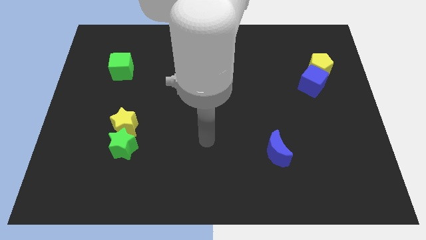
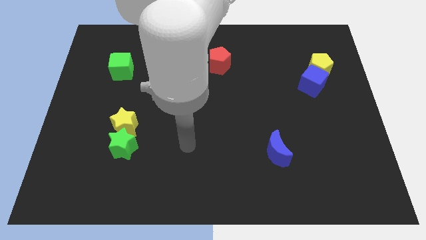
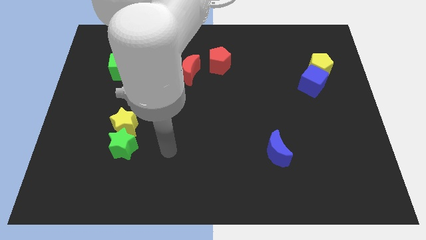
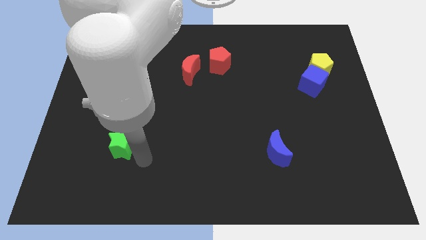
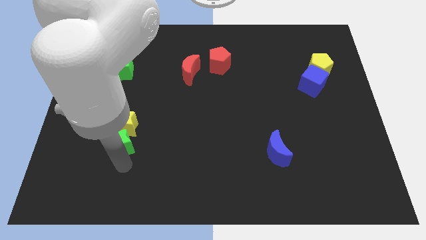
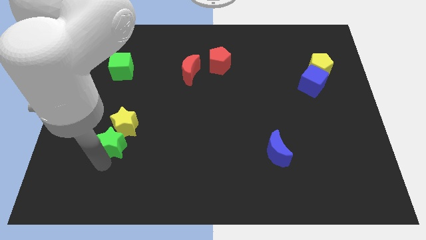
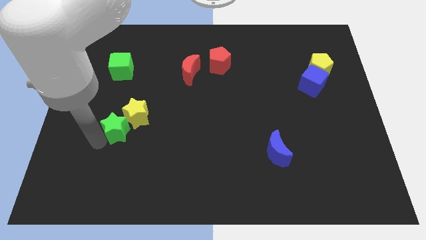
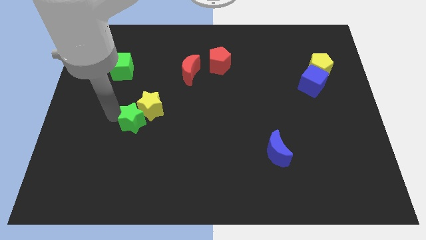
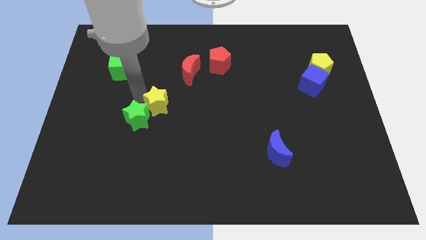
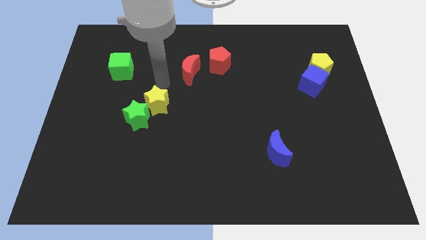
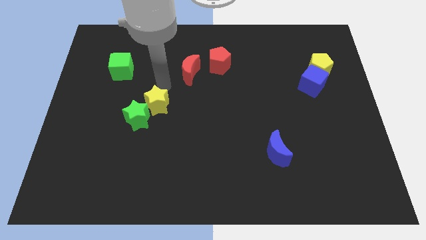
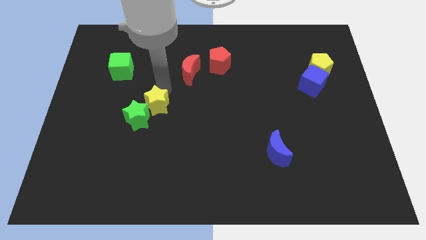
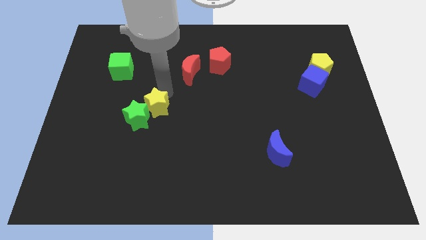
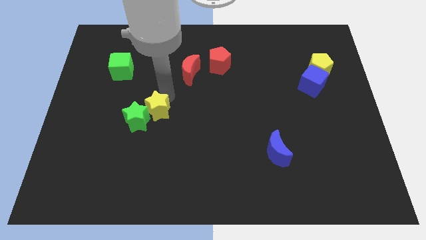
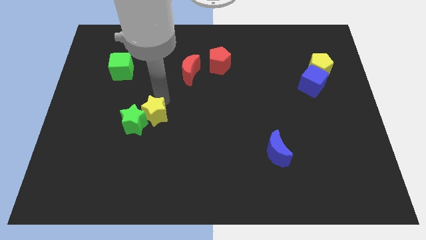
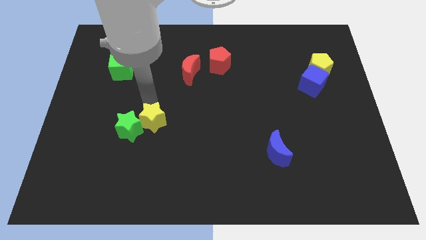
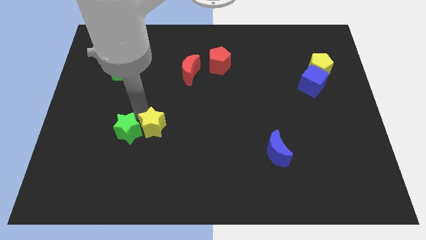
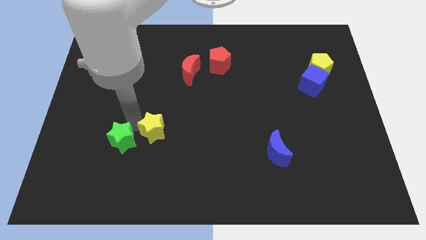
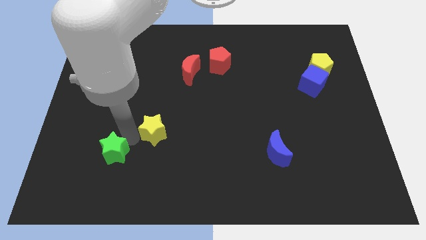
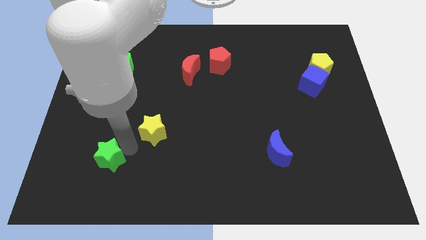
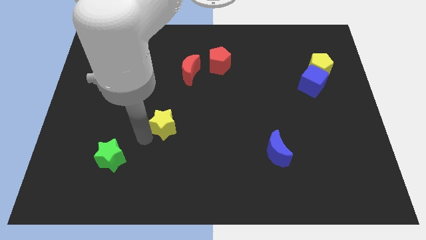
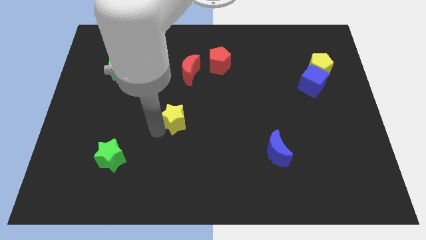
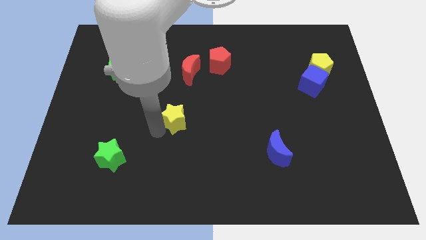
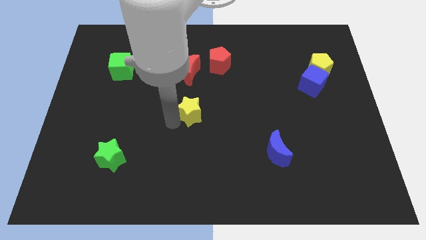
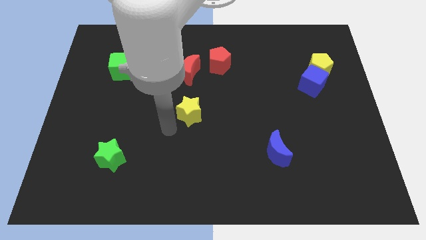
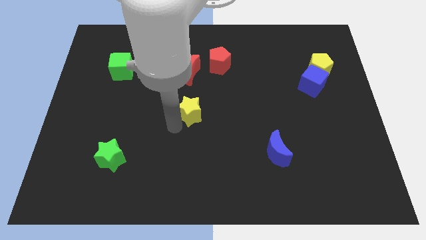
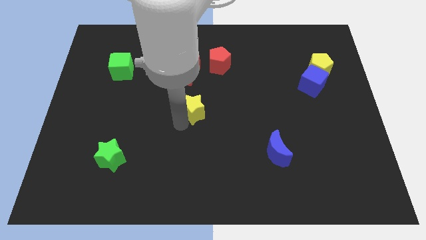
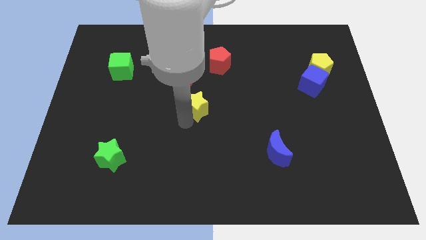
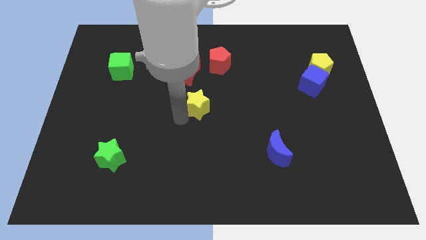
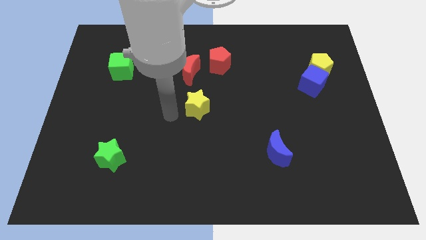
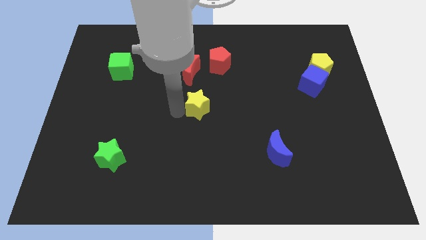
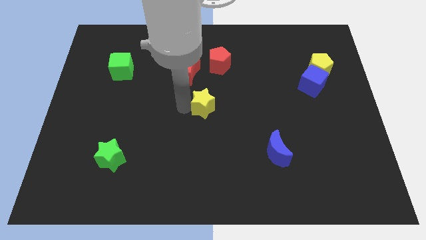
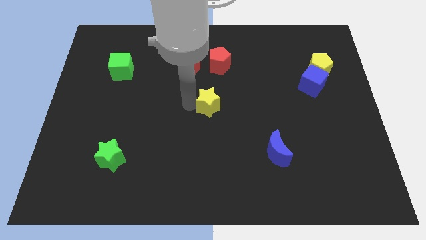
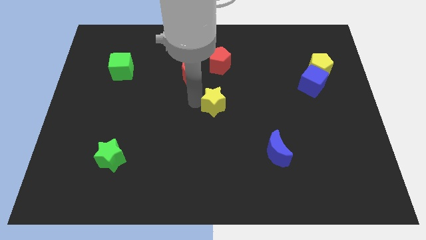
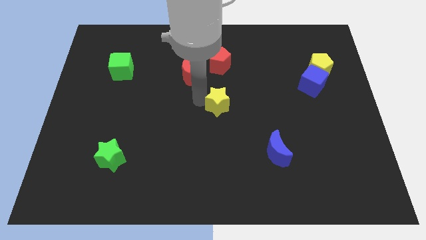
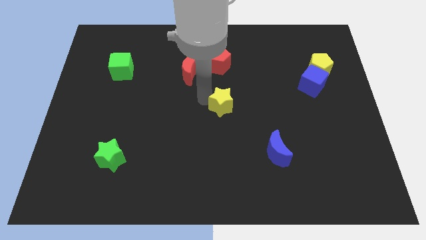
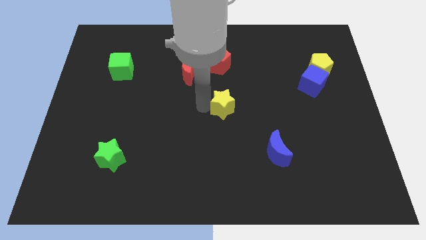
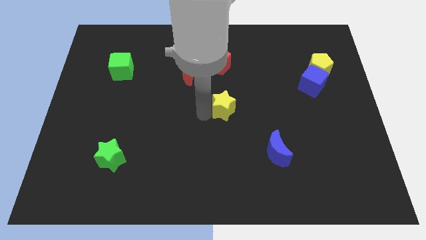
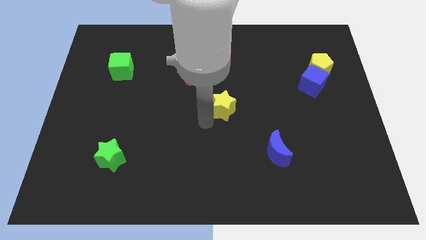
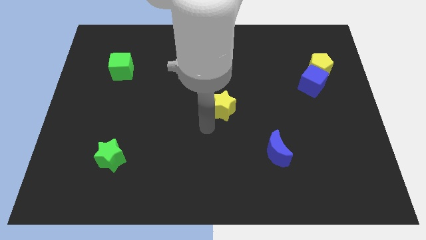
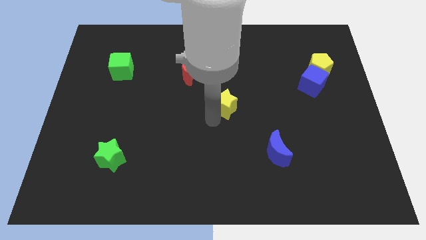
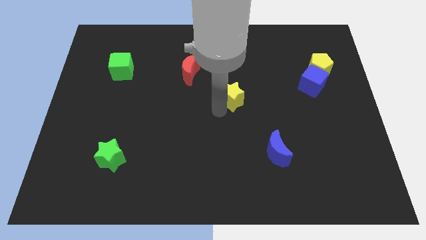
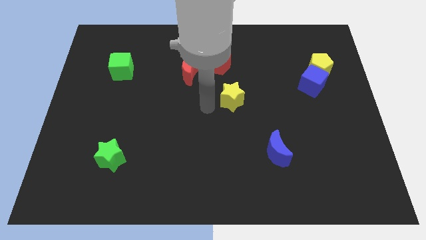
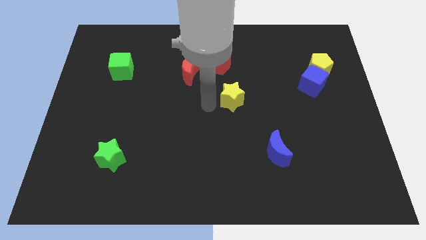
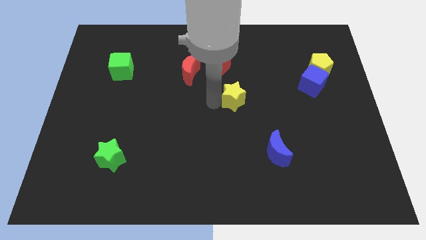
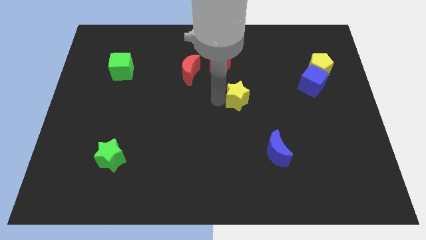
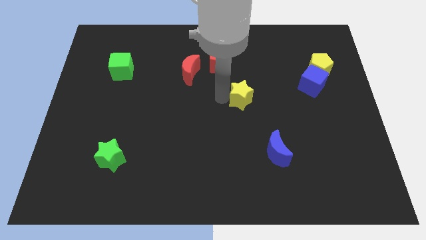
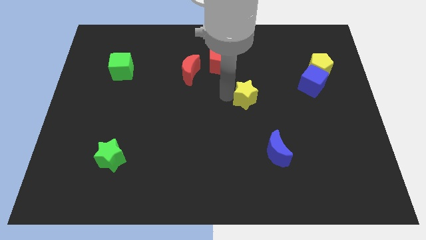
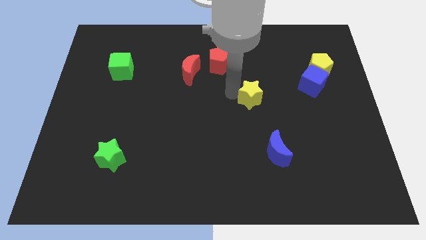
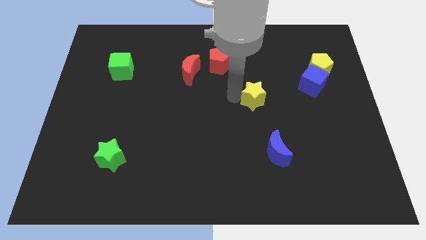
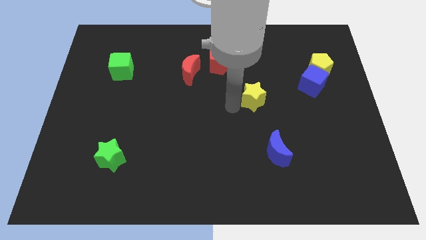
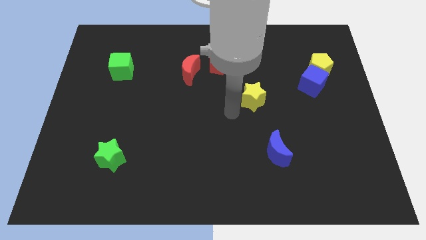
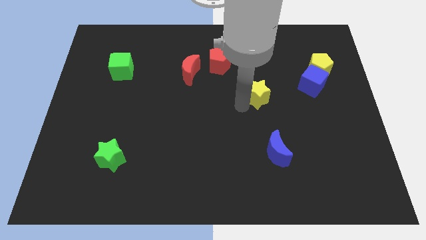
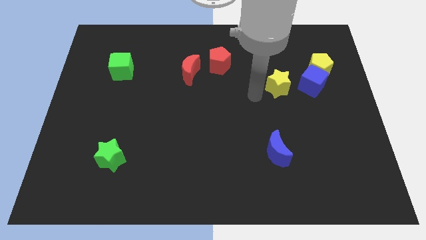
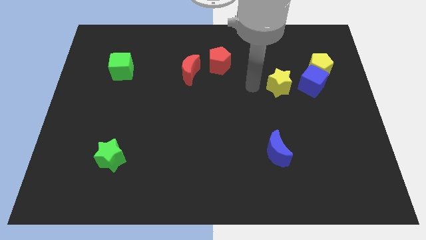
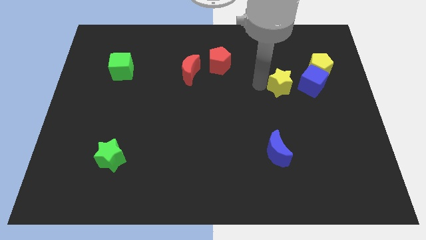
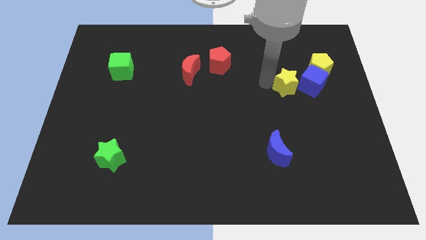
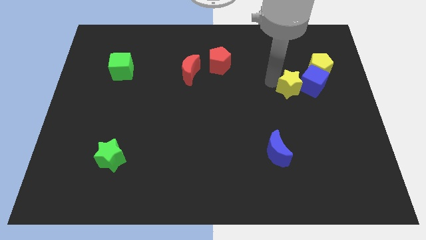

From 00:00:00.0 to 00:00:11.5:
slide the yellow star close to the blue cube

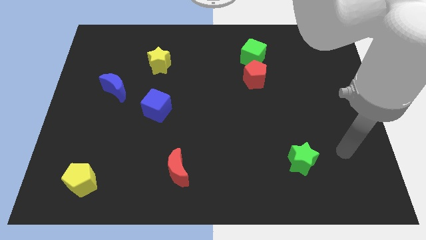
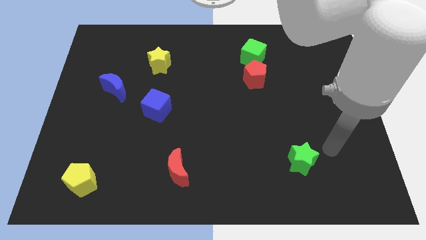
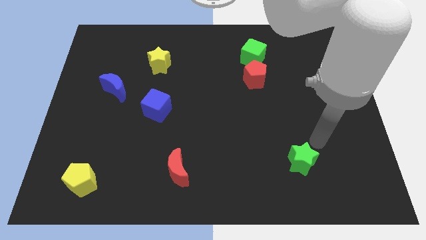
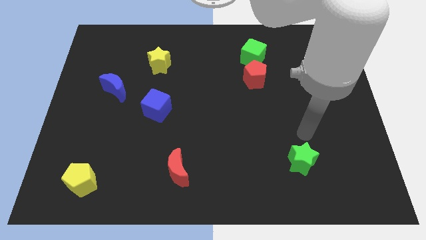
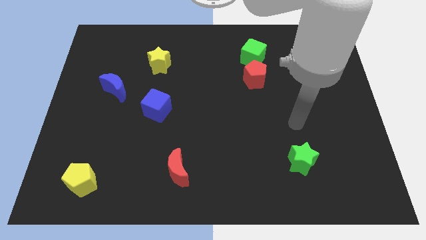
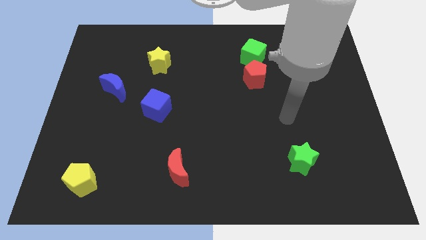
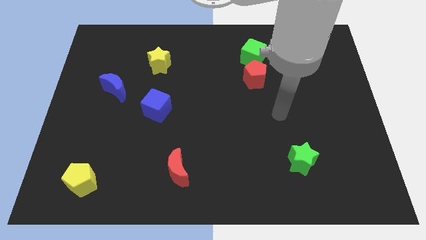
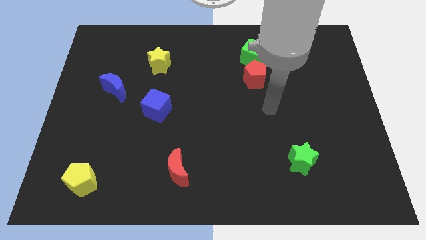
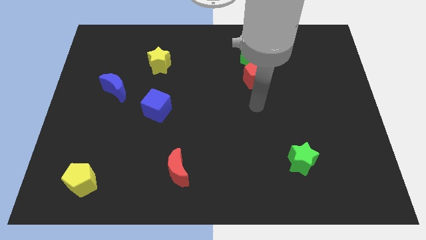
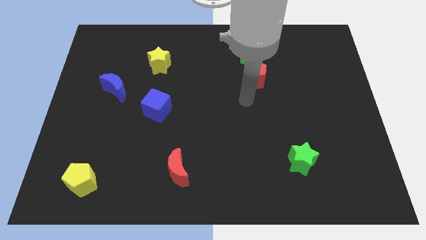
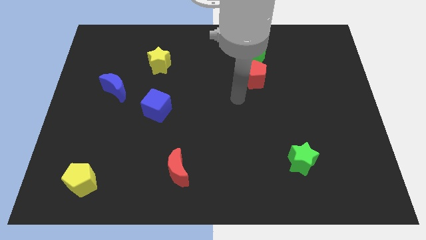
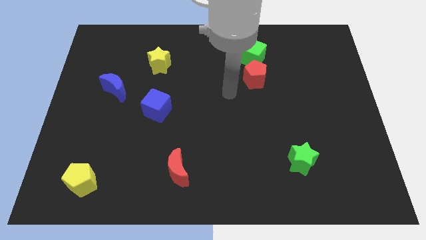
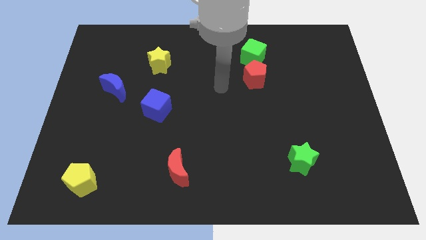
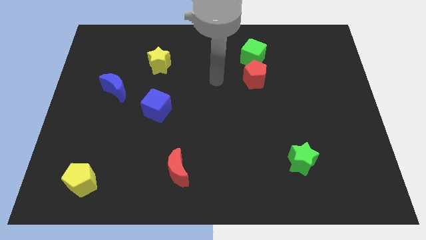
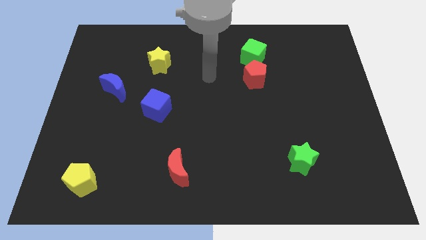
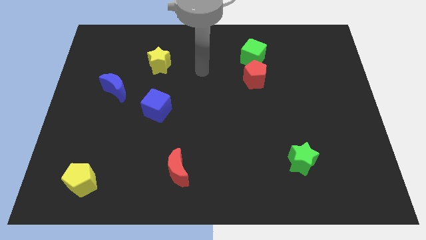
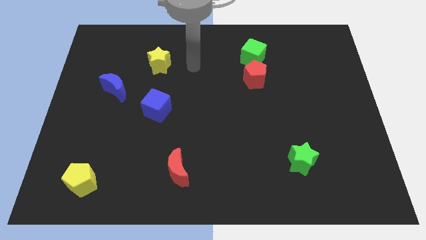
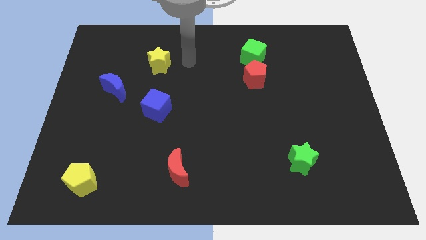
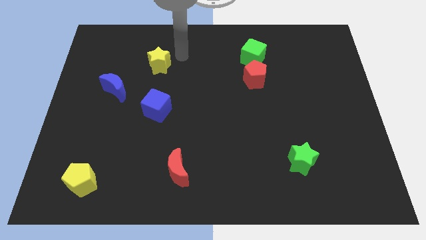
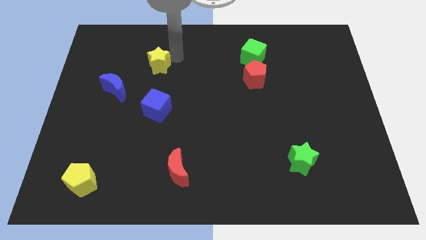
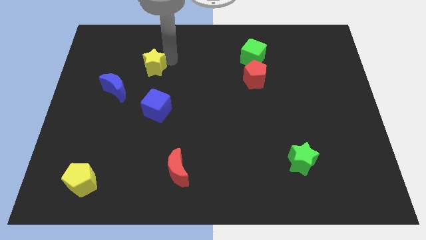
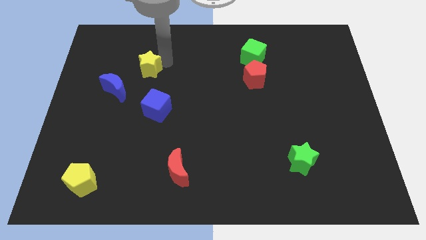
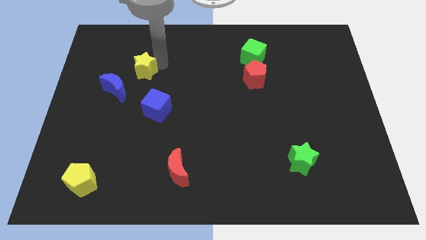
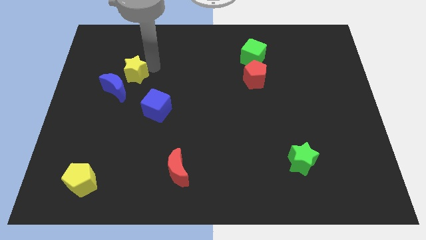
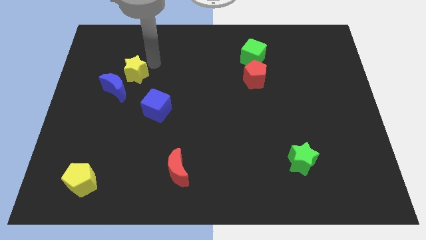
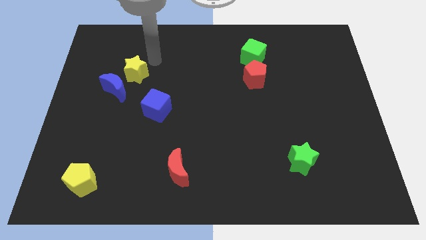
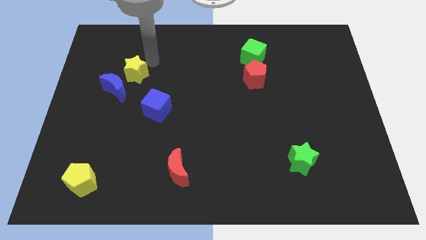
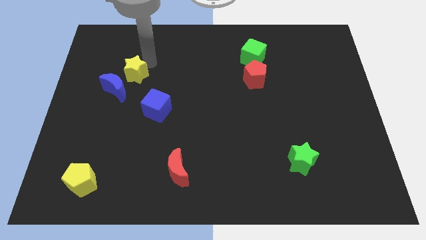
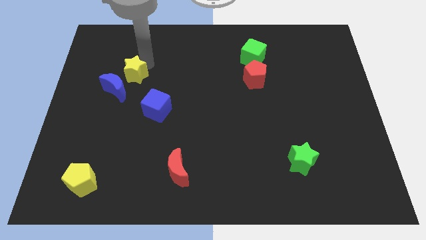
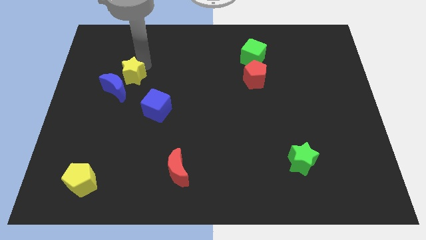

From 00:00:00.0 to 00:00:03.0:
move the yellow star close to the blue moon
